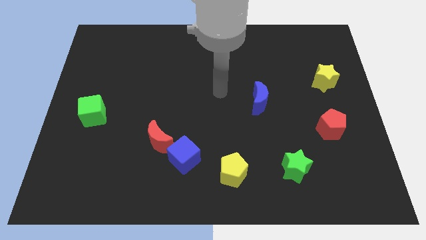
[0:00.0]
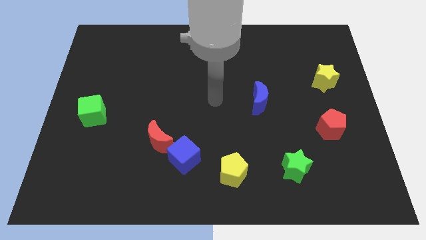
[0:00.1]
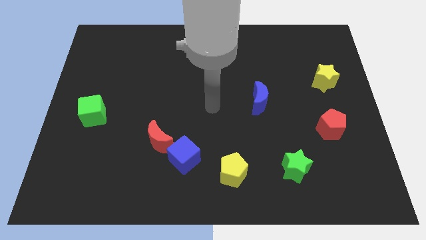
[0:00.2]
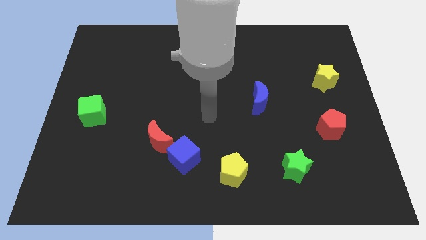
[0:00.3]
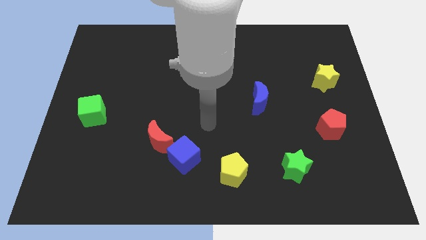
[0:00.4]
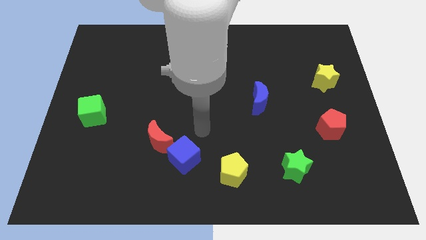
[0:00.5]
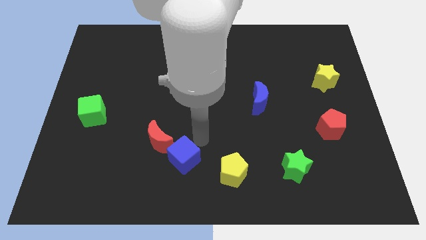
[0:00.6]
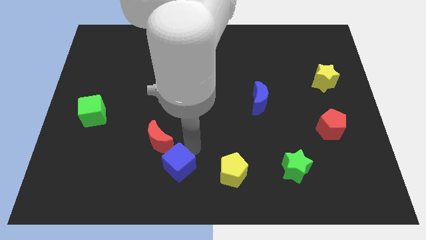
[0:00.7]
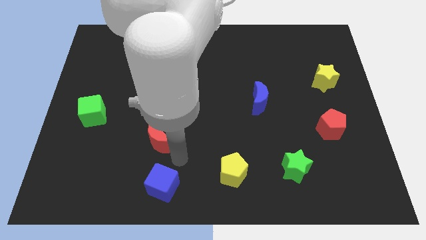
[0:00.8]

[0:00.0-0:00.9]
pull the red moon apart from the blue cube

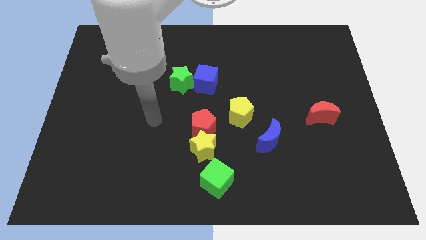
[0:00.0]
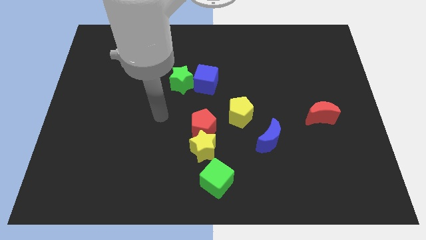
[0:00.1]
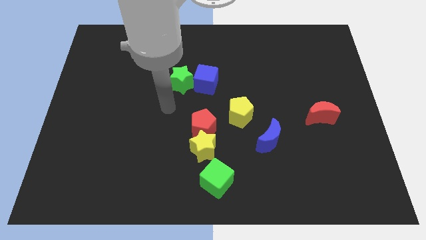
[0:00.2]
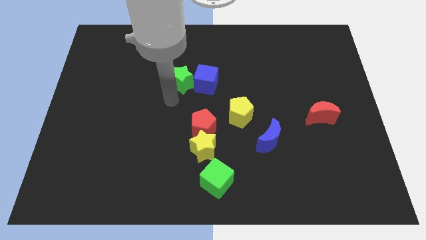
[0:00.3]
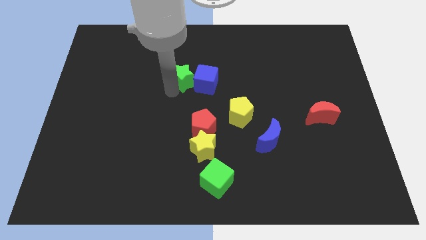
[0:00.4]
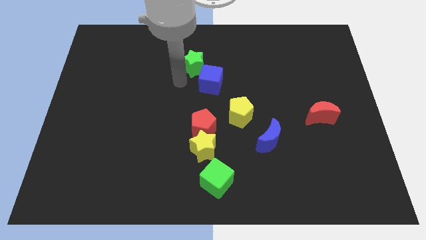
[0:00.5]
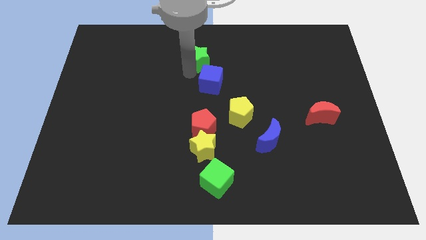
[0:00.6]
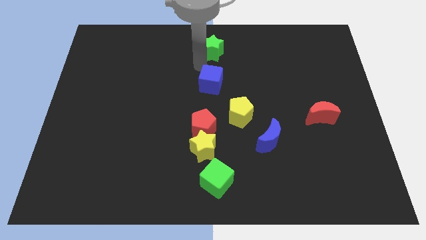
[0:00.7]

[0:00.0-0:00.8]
separate the blue cube from the green star

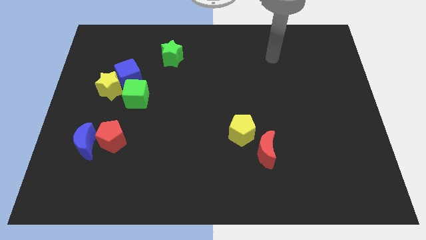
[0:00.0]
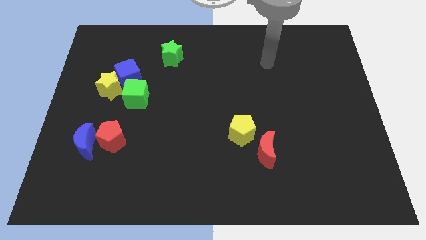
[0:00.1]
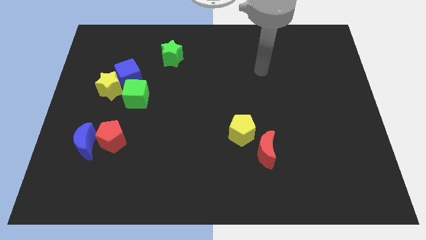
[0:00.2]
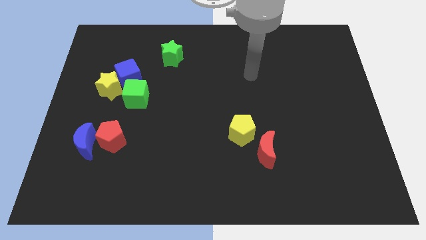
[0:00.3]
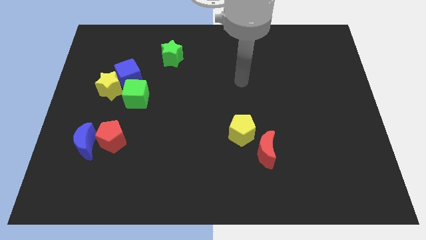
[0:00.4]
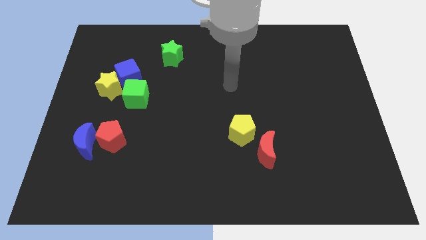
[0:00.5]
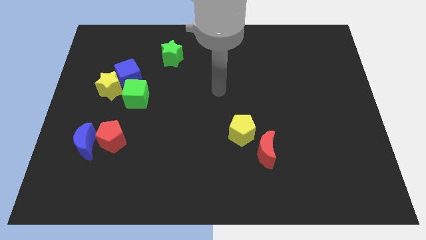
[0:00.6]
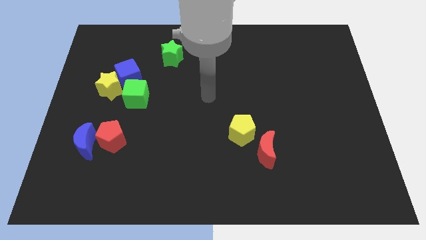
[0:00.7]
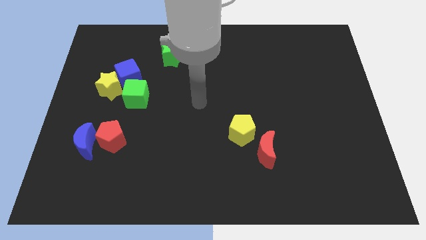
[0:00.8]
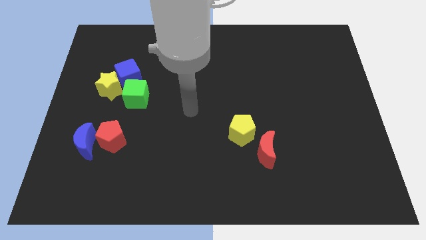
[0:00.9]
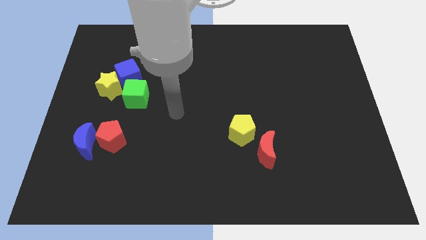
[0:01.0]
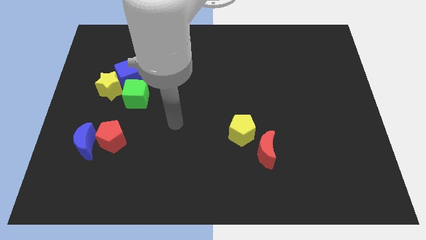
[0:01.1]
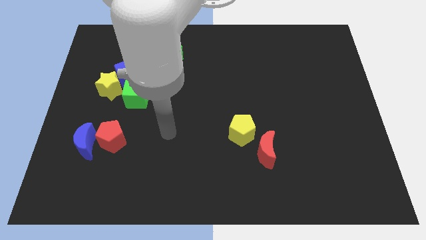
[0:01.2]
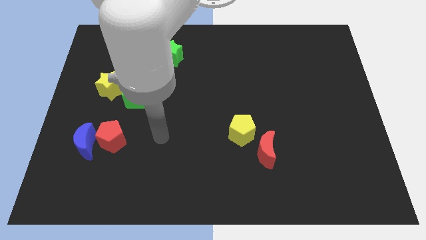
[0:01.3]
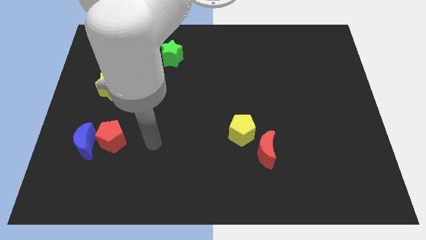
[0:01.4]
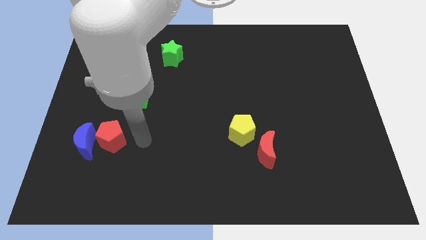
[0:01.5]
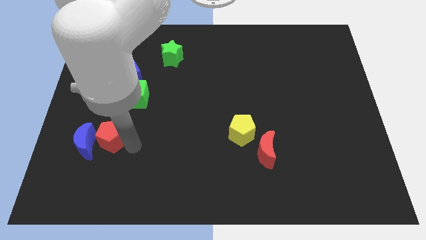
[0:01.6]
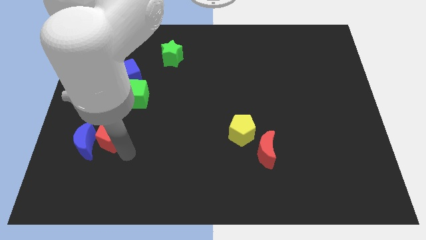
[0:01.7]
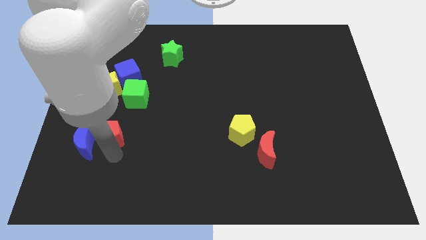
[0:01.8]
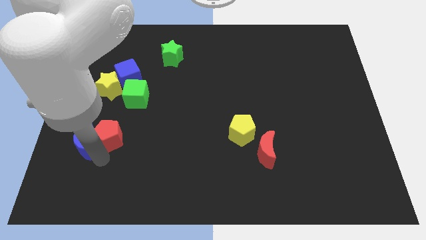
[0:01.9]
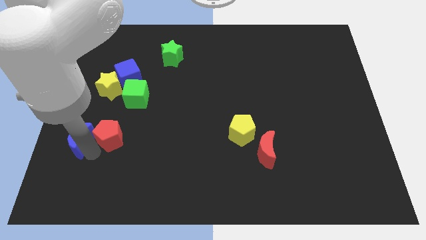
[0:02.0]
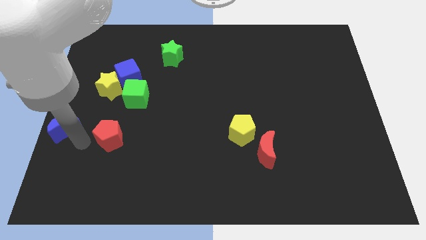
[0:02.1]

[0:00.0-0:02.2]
pull the red pentagon apart from the blue moon

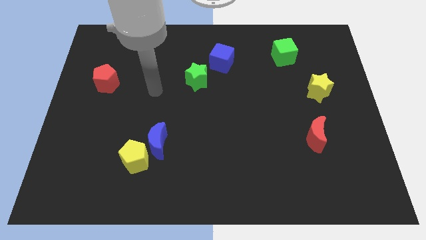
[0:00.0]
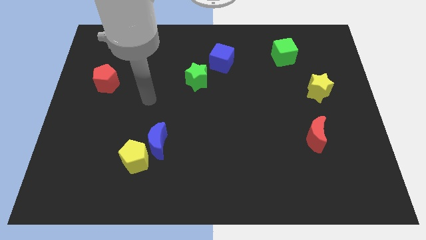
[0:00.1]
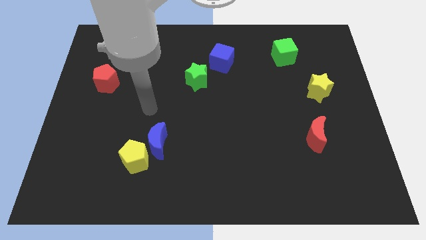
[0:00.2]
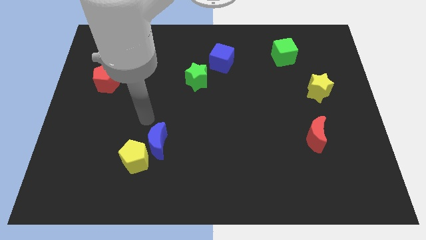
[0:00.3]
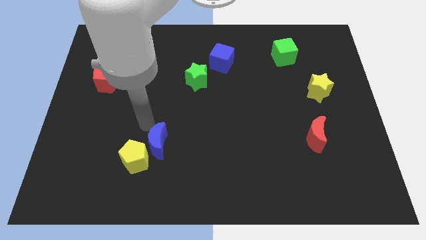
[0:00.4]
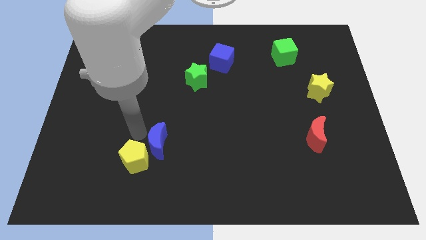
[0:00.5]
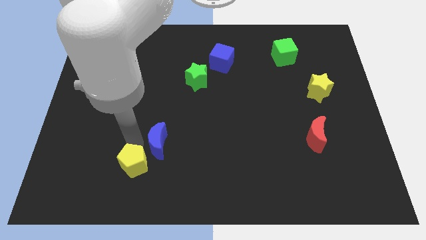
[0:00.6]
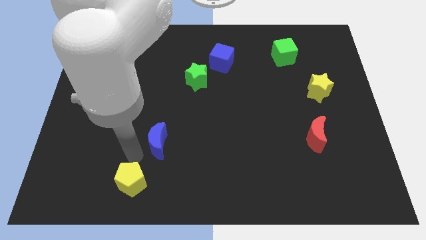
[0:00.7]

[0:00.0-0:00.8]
pull the blue moon apart from the yellow pentagon

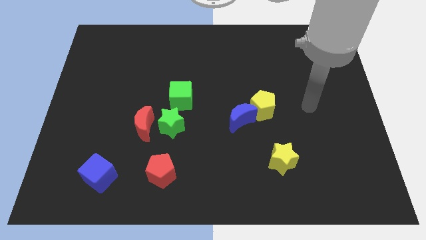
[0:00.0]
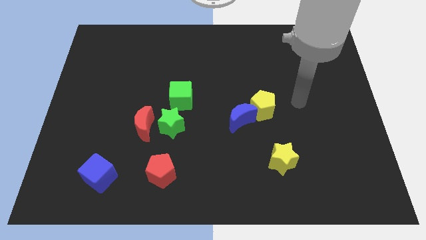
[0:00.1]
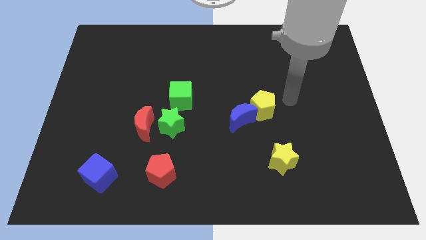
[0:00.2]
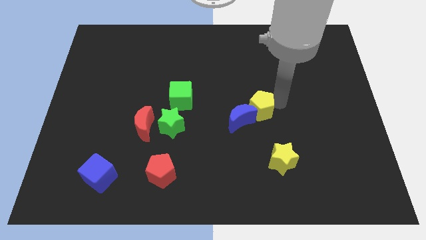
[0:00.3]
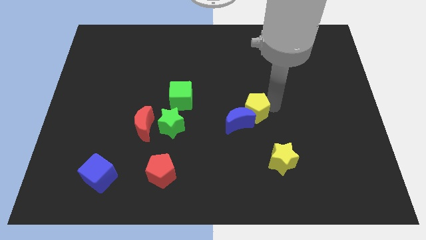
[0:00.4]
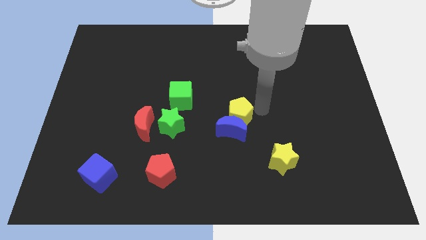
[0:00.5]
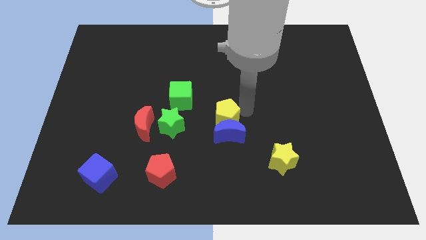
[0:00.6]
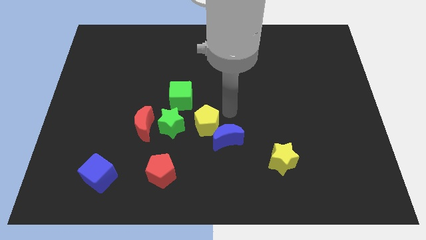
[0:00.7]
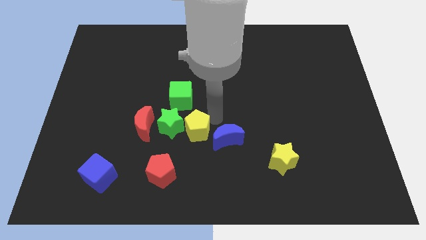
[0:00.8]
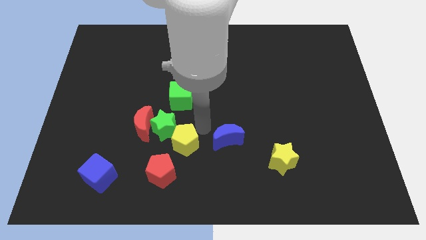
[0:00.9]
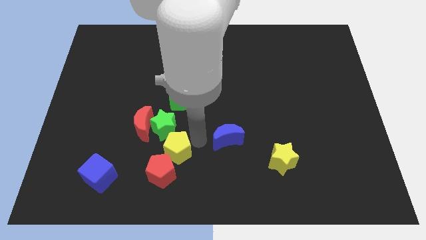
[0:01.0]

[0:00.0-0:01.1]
move the blue moon away from the yellow pentagon

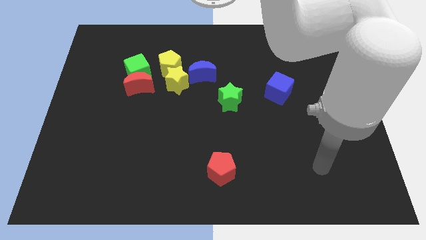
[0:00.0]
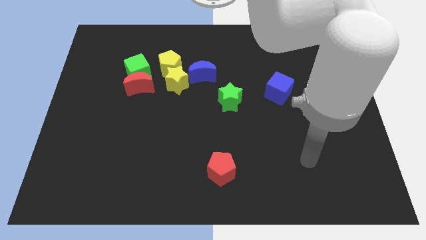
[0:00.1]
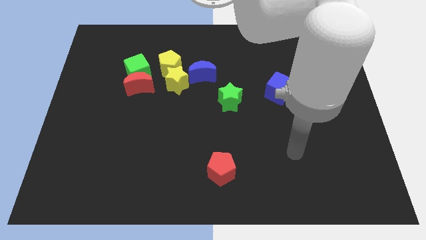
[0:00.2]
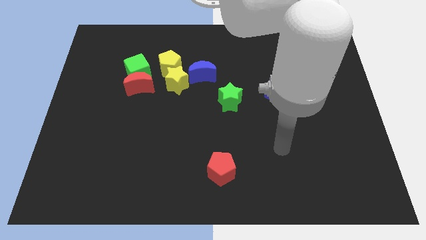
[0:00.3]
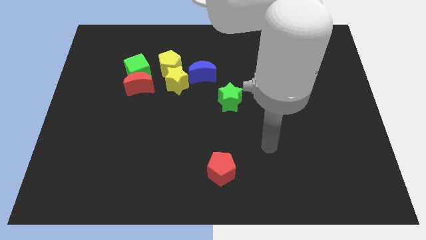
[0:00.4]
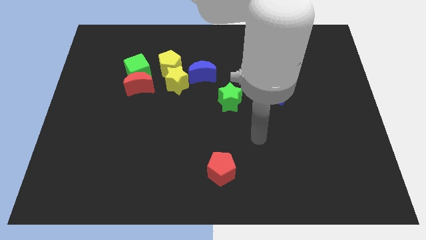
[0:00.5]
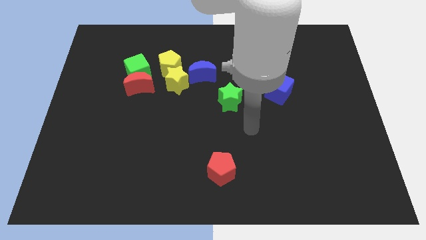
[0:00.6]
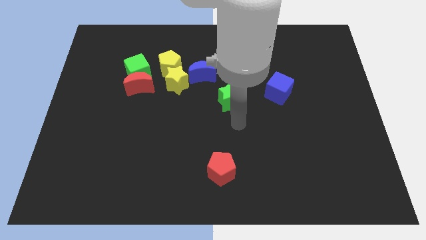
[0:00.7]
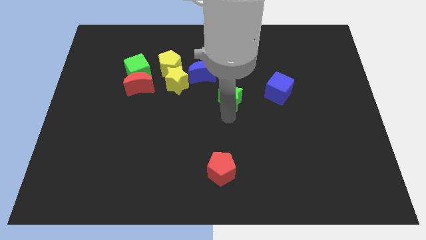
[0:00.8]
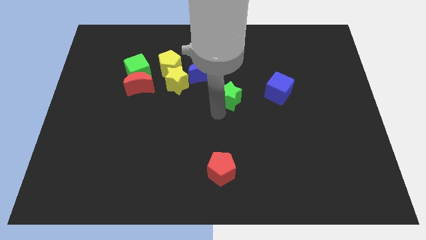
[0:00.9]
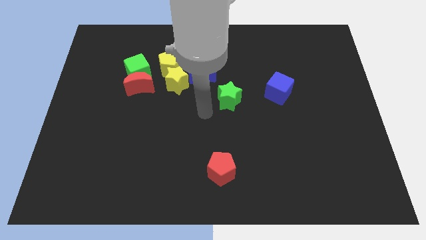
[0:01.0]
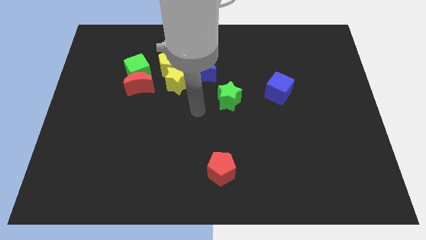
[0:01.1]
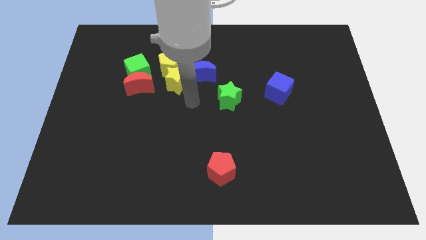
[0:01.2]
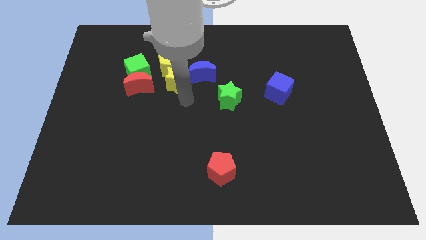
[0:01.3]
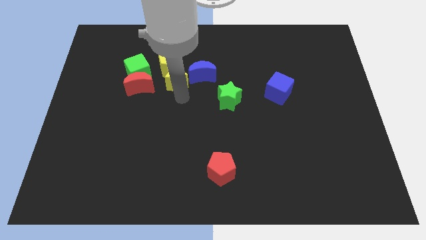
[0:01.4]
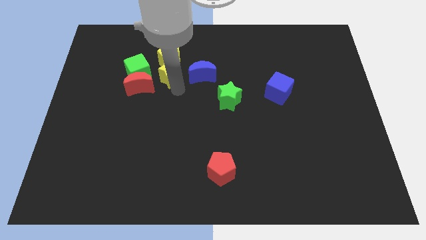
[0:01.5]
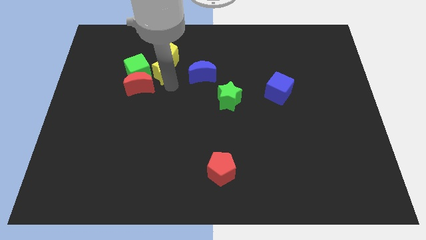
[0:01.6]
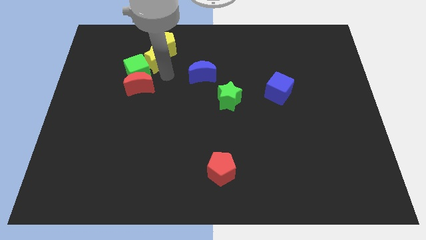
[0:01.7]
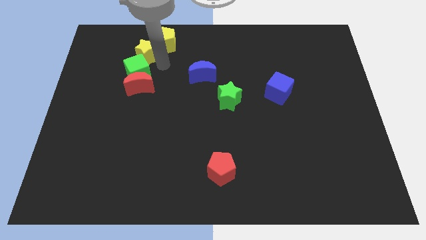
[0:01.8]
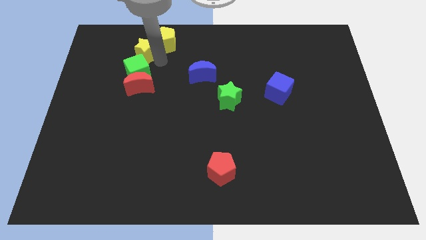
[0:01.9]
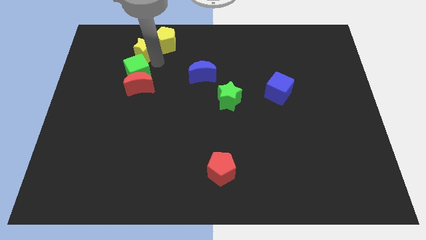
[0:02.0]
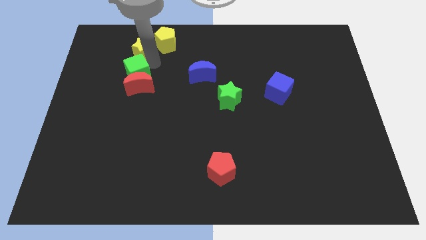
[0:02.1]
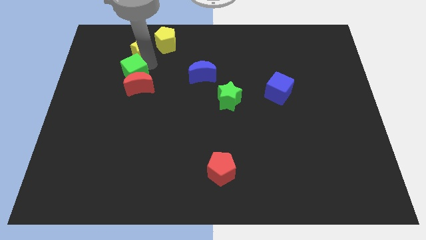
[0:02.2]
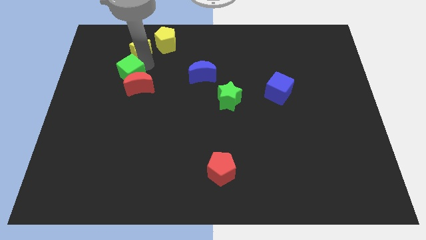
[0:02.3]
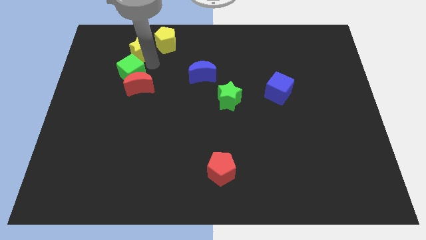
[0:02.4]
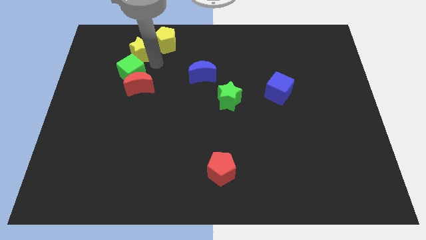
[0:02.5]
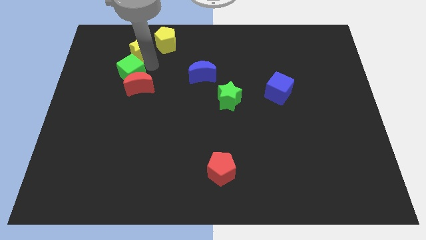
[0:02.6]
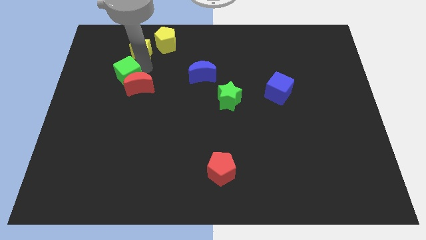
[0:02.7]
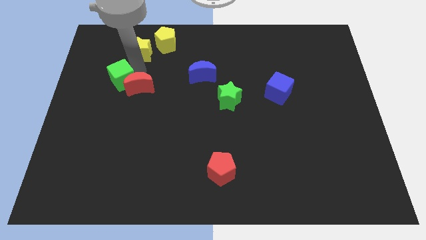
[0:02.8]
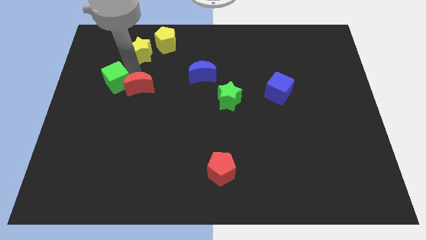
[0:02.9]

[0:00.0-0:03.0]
separate the green cube from the red moon and yellow pentagon

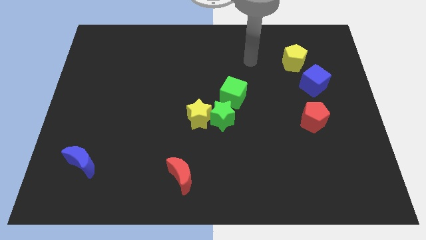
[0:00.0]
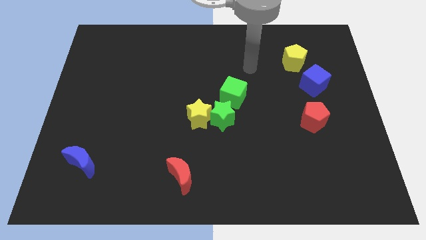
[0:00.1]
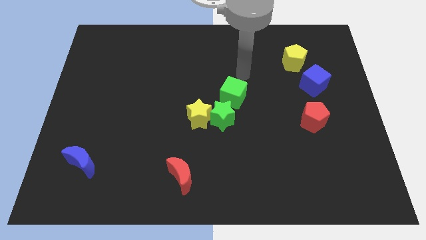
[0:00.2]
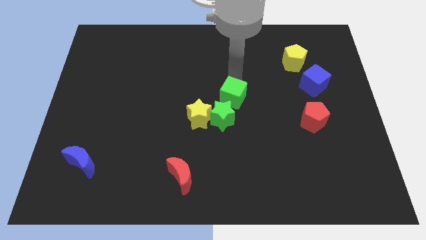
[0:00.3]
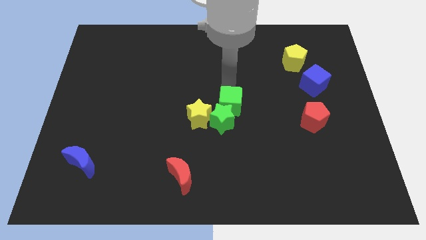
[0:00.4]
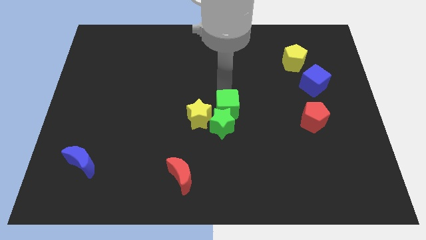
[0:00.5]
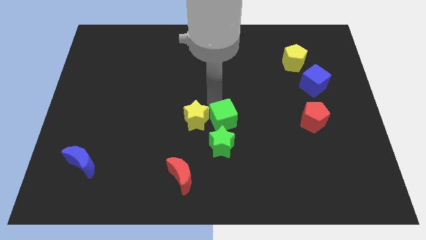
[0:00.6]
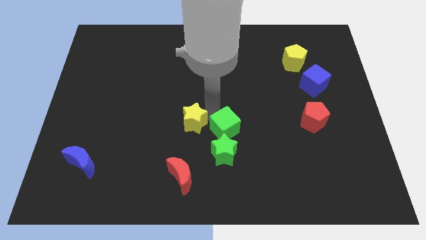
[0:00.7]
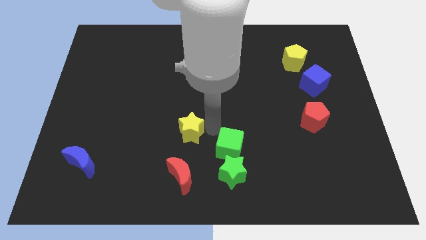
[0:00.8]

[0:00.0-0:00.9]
separate the green star from the yellow star and green cube
